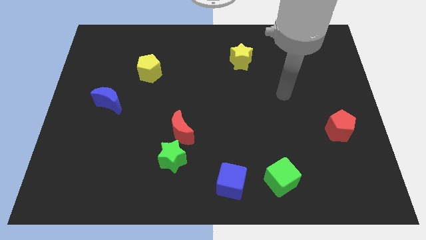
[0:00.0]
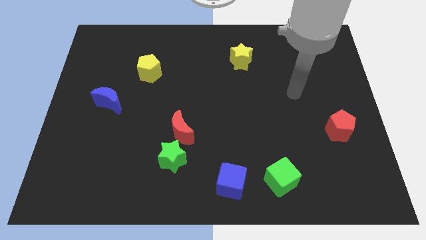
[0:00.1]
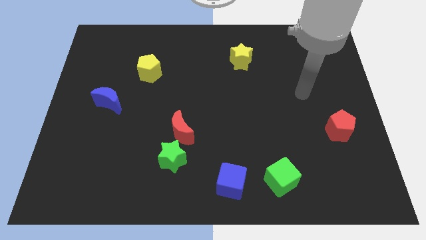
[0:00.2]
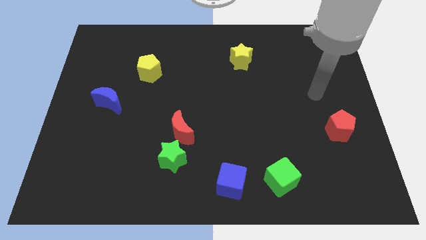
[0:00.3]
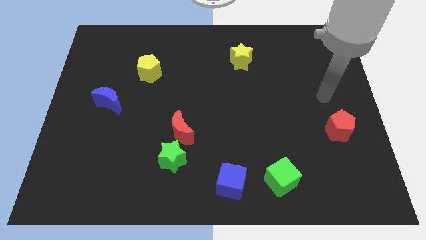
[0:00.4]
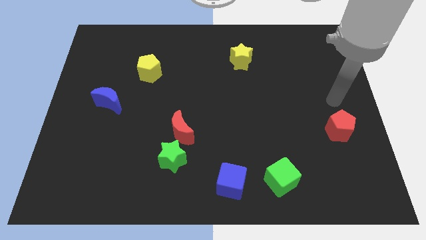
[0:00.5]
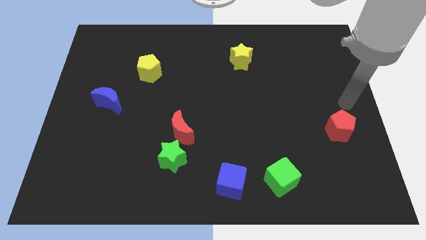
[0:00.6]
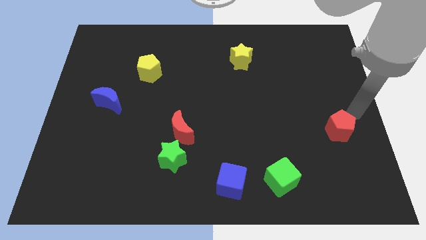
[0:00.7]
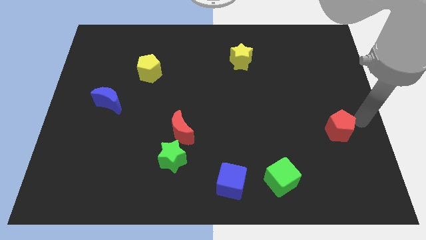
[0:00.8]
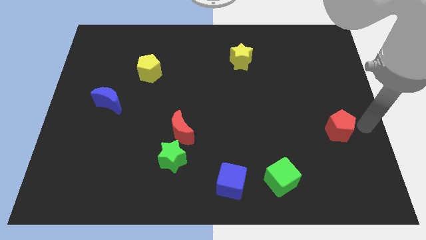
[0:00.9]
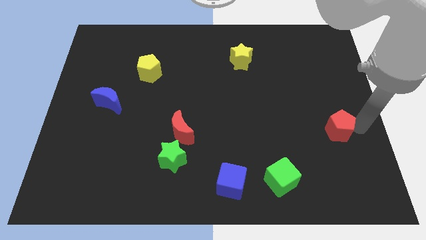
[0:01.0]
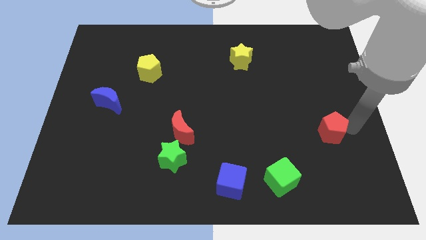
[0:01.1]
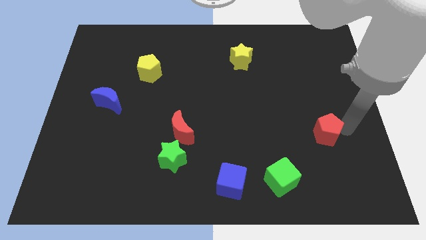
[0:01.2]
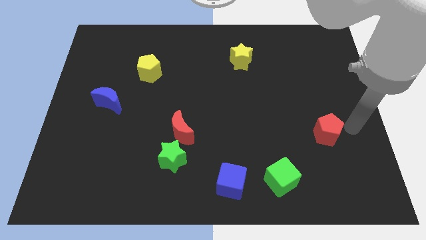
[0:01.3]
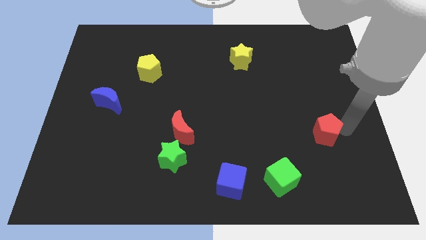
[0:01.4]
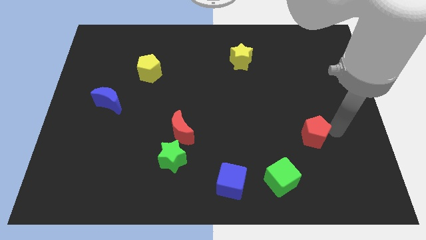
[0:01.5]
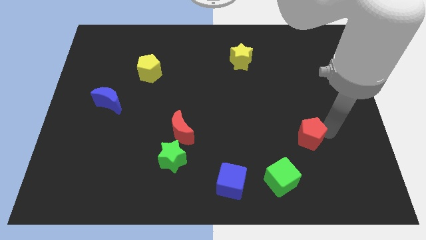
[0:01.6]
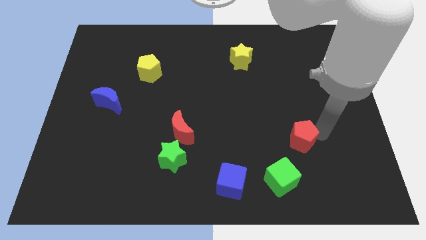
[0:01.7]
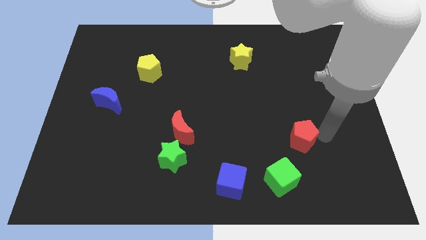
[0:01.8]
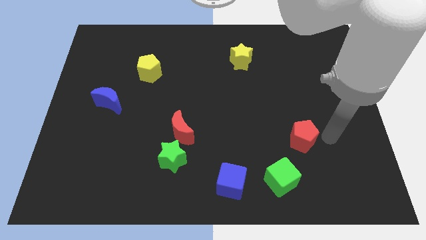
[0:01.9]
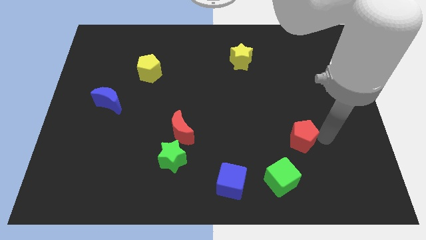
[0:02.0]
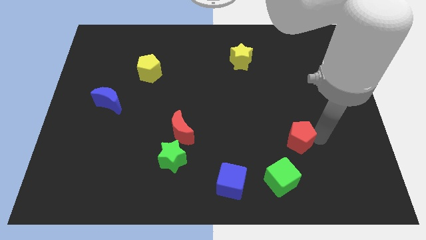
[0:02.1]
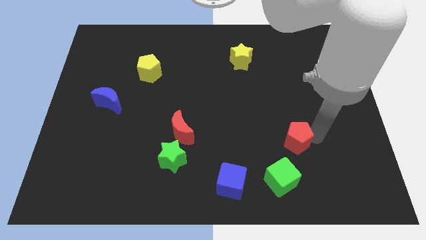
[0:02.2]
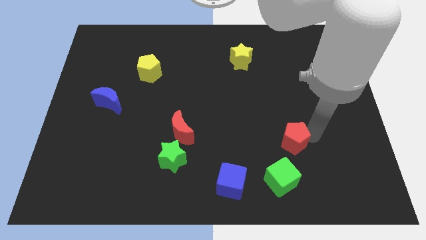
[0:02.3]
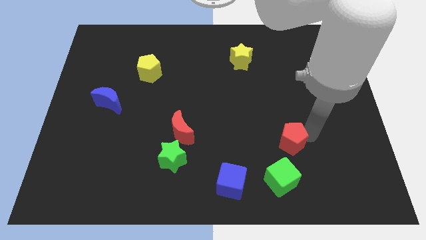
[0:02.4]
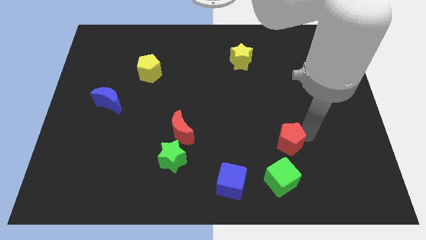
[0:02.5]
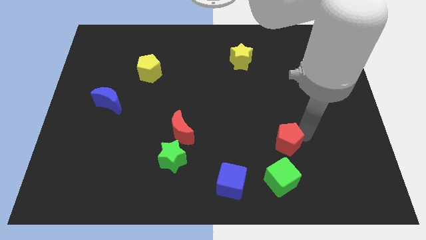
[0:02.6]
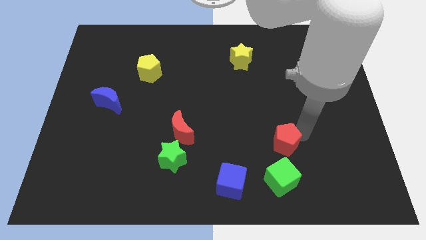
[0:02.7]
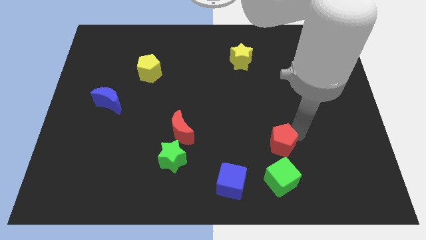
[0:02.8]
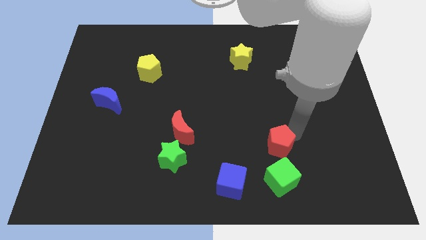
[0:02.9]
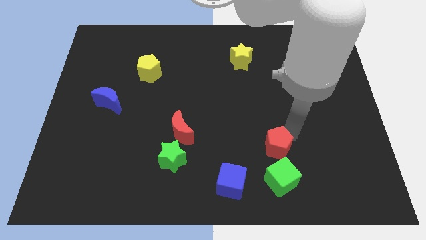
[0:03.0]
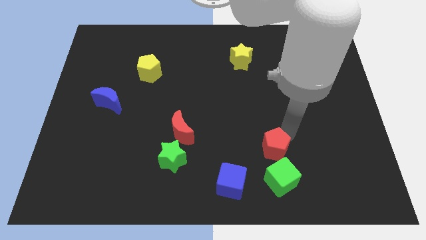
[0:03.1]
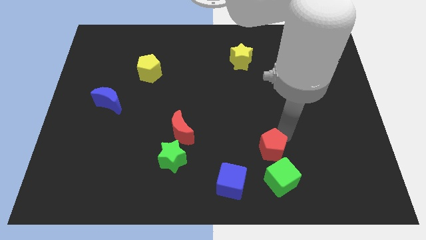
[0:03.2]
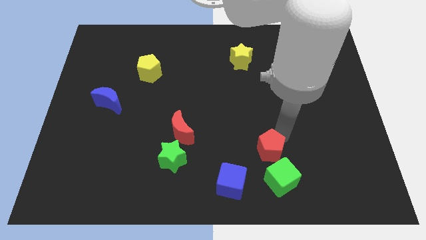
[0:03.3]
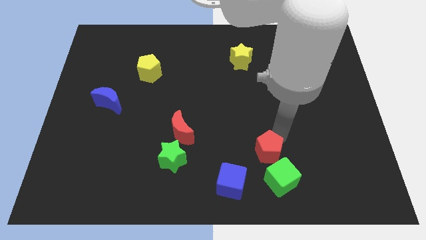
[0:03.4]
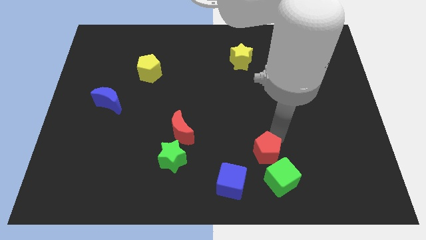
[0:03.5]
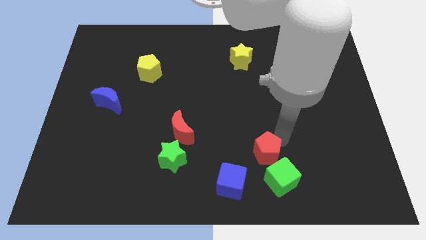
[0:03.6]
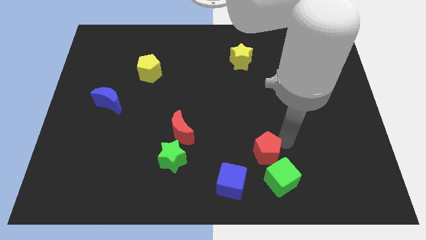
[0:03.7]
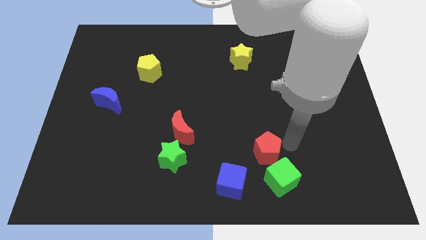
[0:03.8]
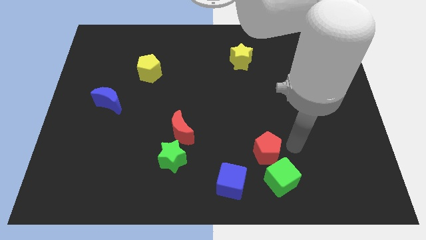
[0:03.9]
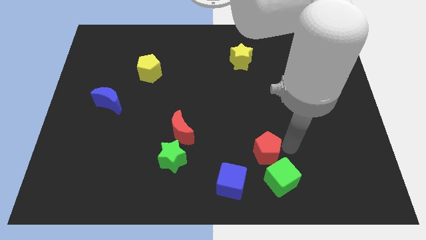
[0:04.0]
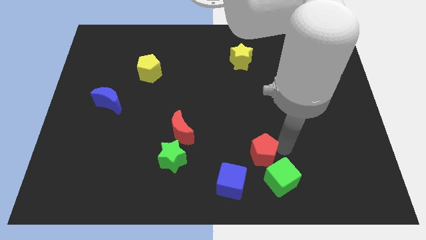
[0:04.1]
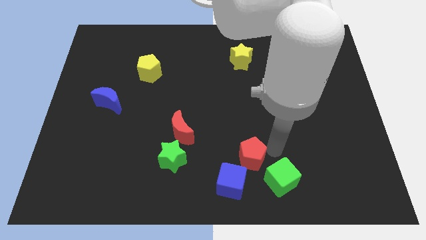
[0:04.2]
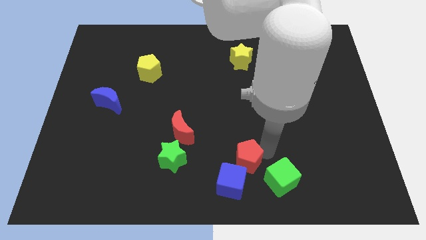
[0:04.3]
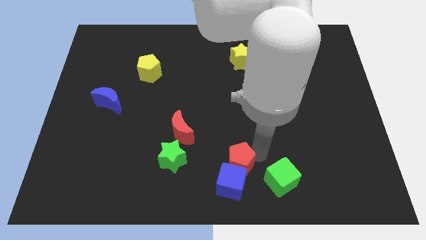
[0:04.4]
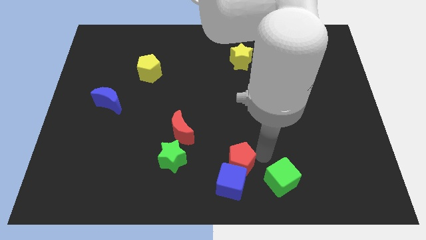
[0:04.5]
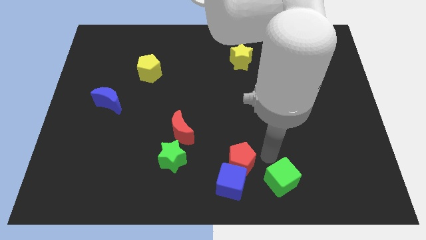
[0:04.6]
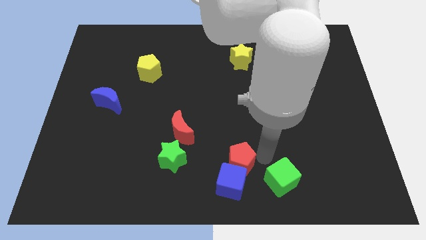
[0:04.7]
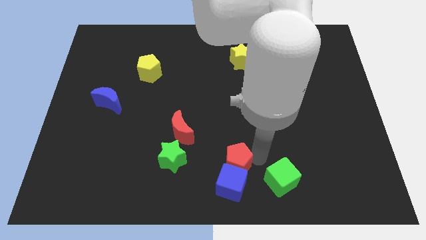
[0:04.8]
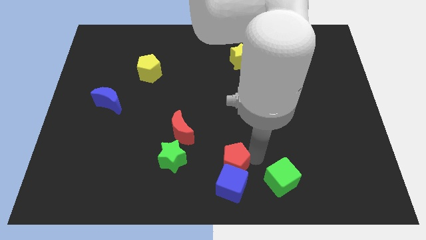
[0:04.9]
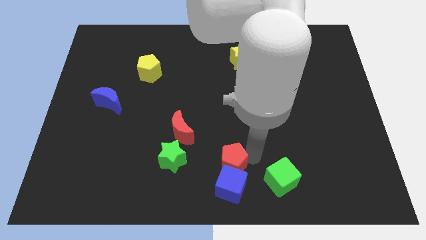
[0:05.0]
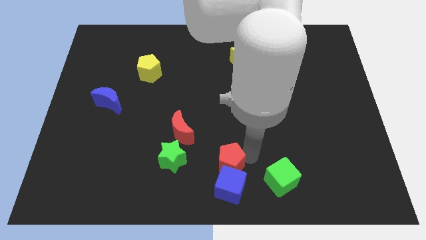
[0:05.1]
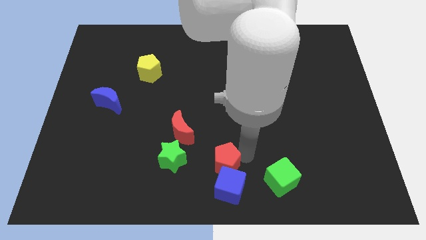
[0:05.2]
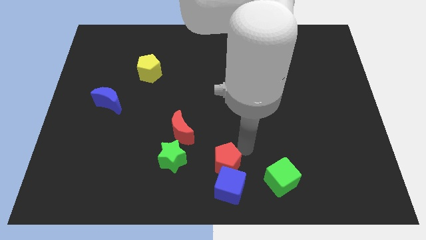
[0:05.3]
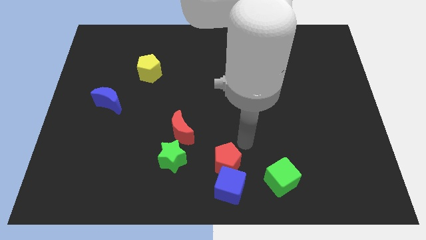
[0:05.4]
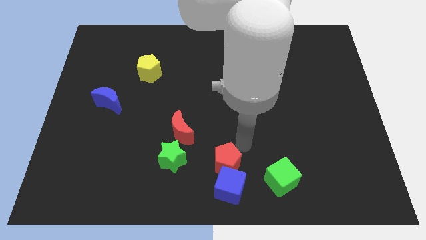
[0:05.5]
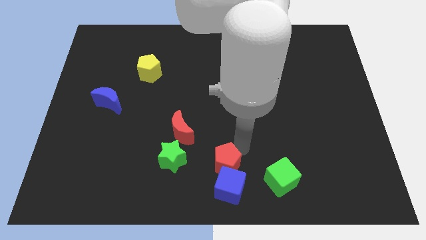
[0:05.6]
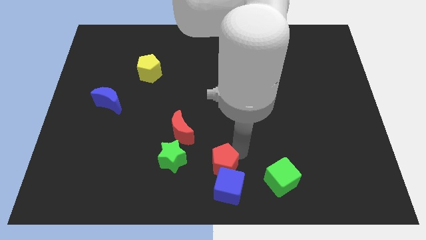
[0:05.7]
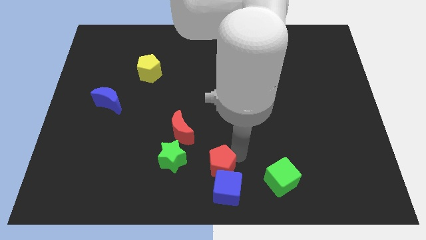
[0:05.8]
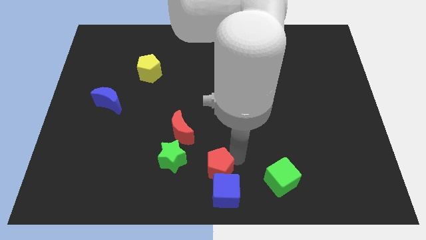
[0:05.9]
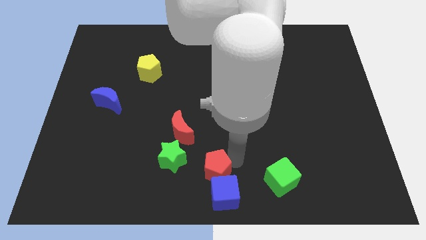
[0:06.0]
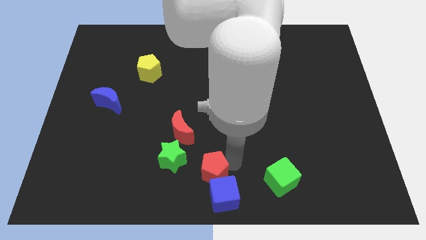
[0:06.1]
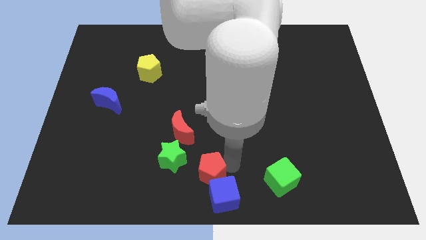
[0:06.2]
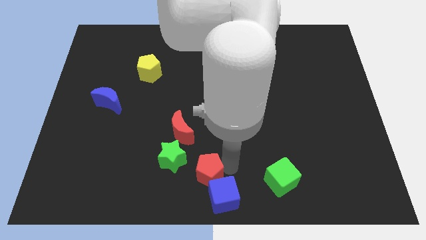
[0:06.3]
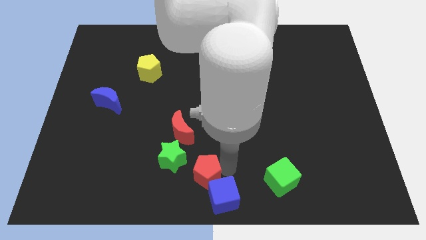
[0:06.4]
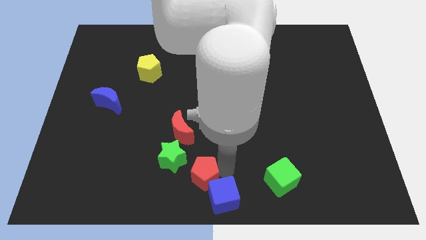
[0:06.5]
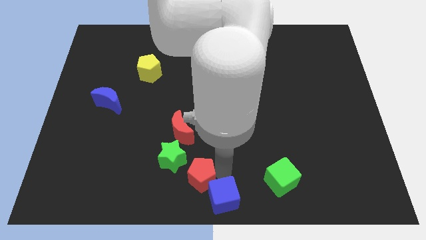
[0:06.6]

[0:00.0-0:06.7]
move the red pentagon to the bottom of the red moon

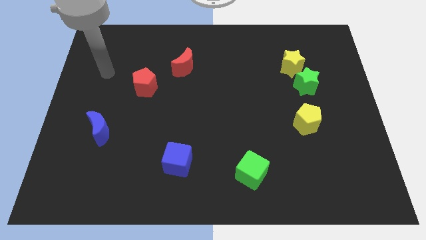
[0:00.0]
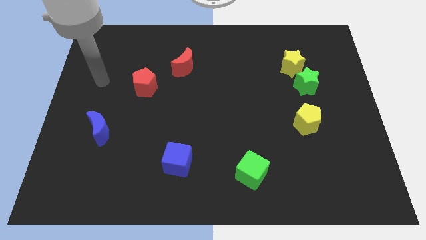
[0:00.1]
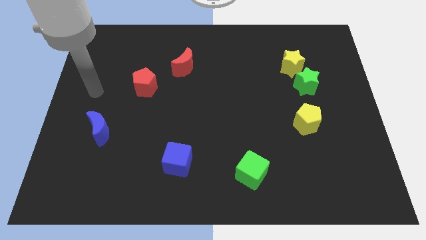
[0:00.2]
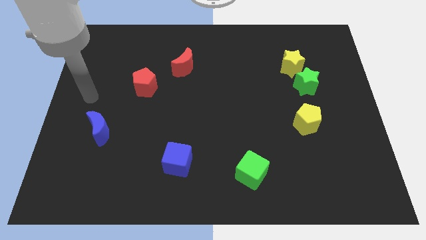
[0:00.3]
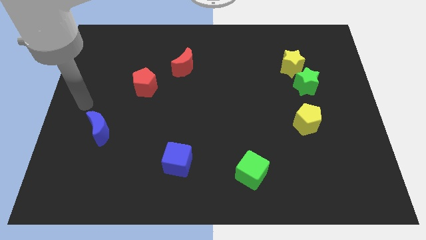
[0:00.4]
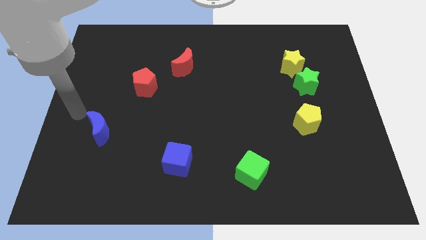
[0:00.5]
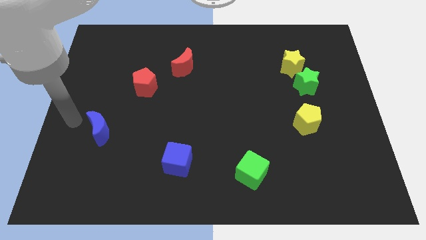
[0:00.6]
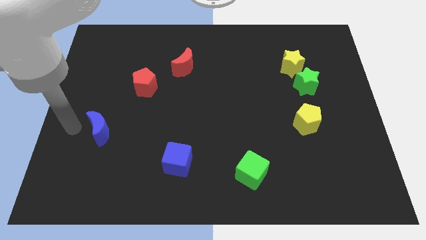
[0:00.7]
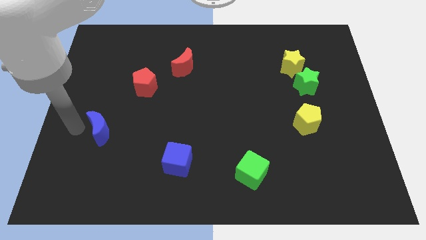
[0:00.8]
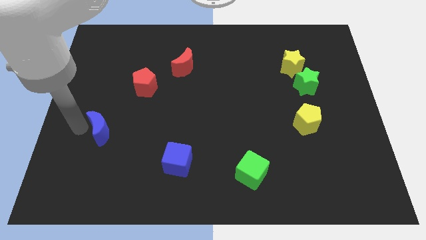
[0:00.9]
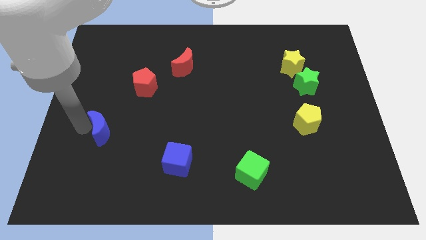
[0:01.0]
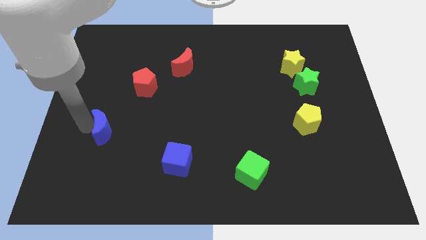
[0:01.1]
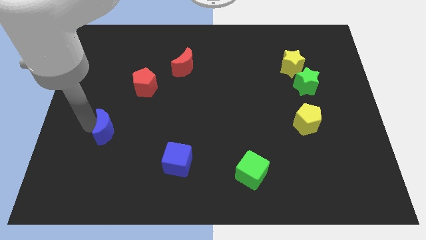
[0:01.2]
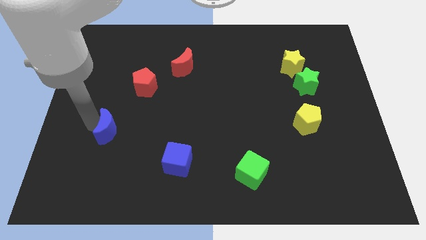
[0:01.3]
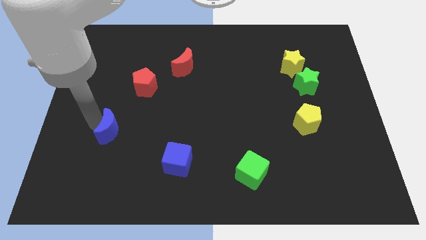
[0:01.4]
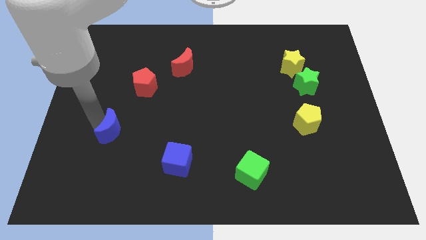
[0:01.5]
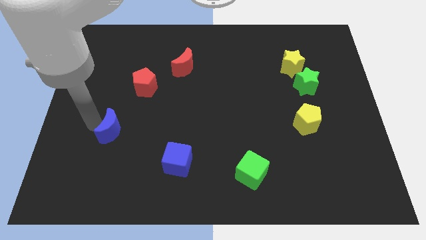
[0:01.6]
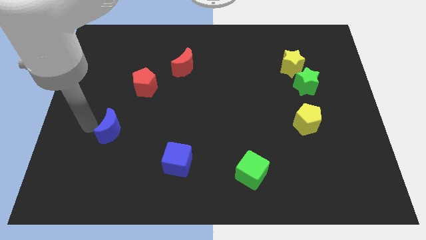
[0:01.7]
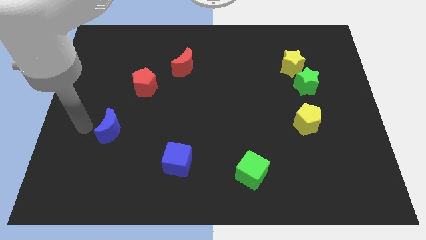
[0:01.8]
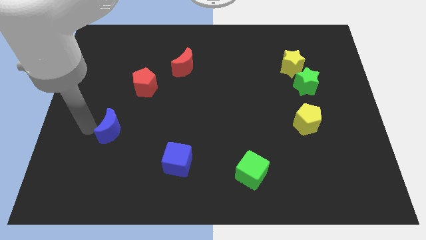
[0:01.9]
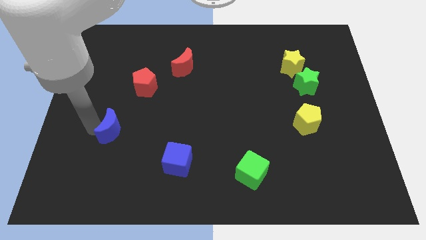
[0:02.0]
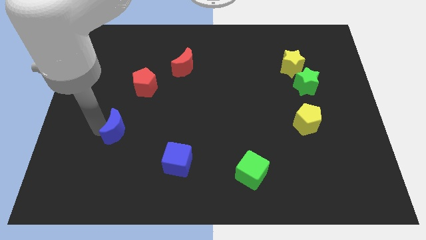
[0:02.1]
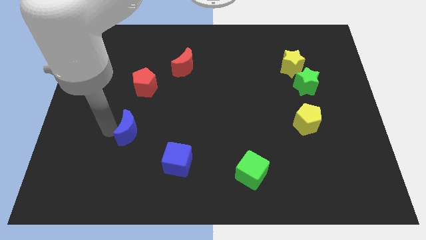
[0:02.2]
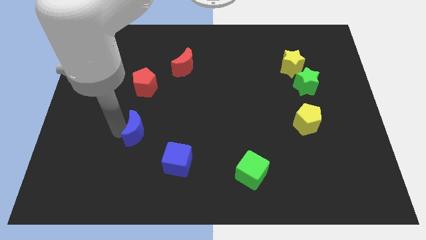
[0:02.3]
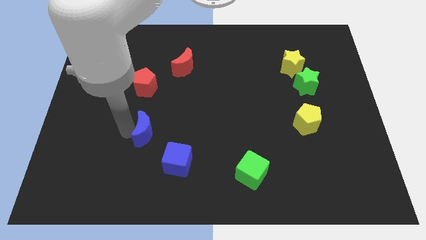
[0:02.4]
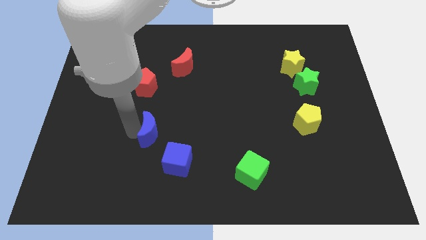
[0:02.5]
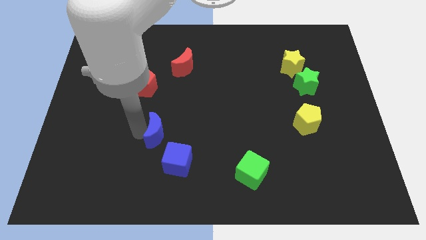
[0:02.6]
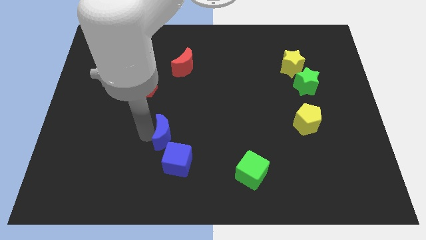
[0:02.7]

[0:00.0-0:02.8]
slide the blue moon above the blue cube
